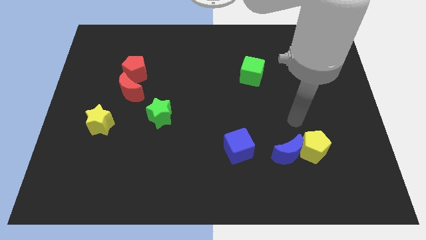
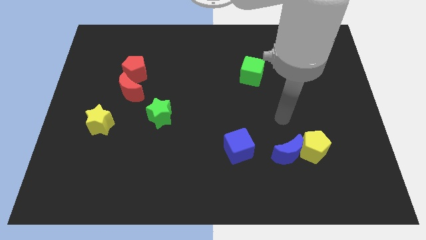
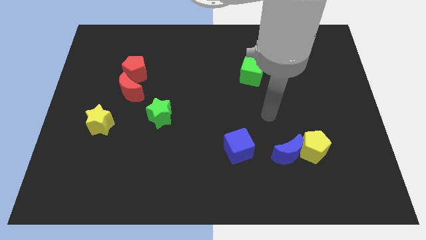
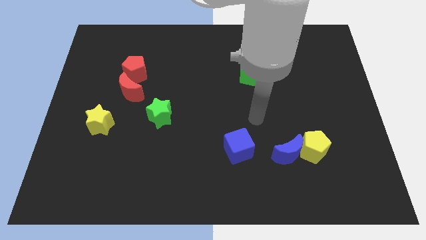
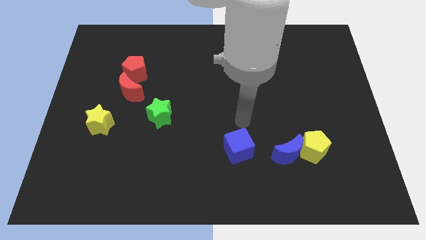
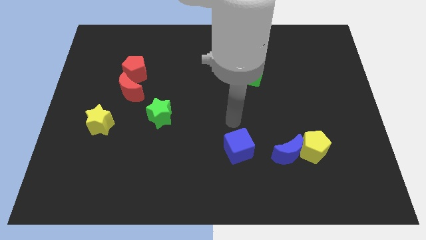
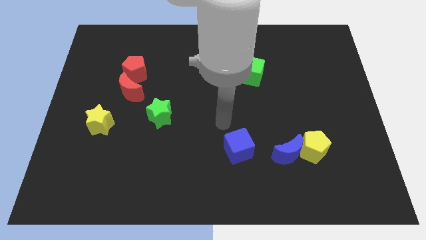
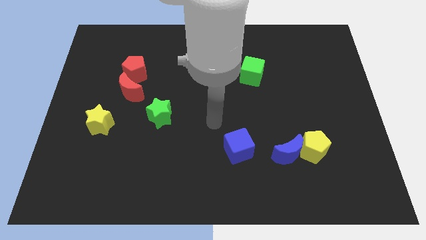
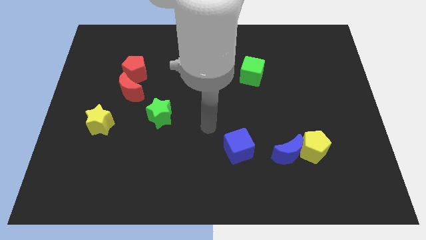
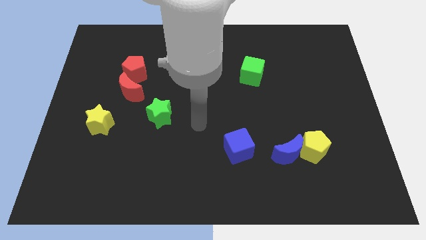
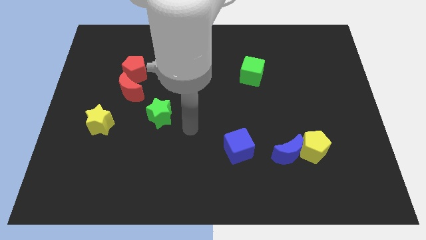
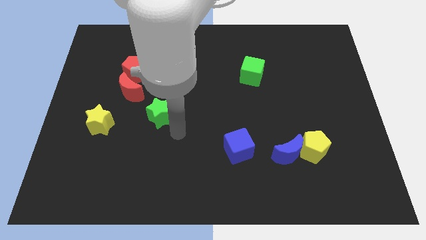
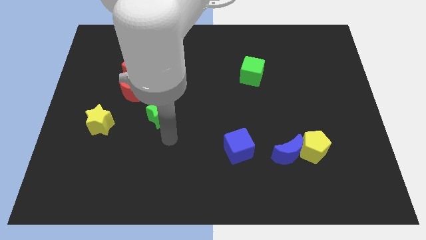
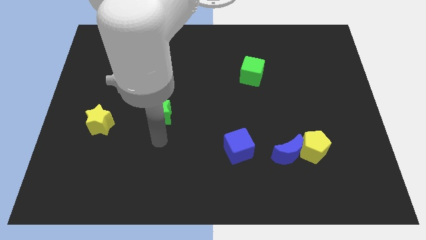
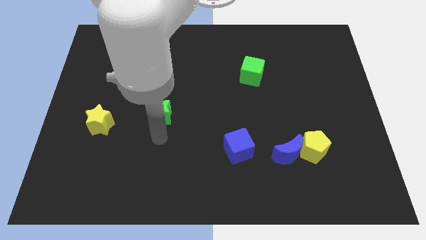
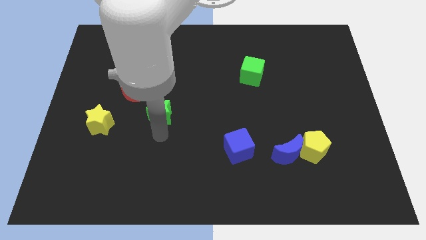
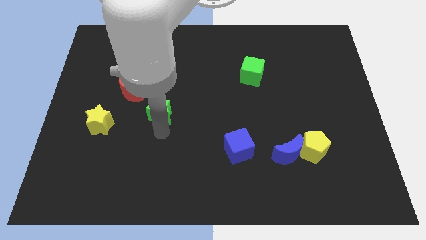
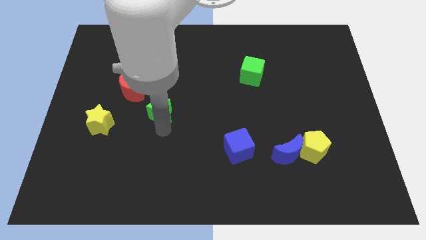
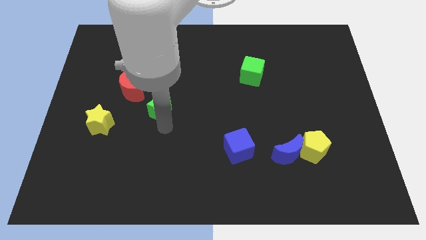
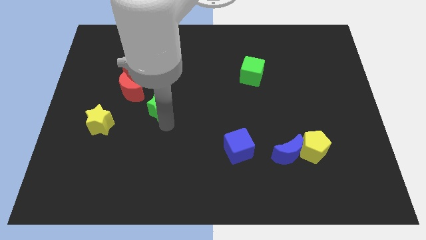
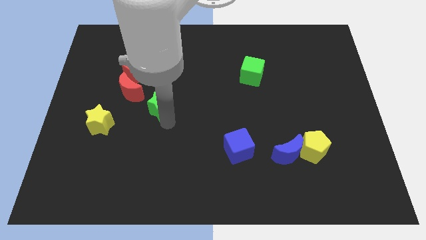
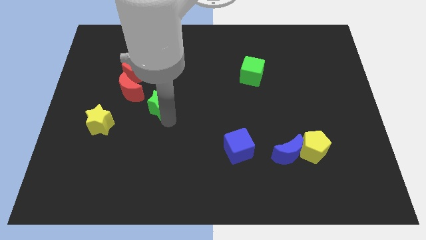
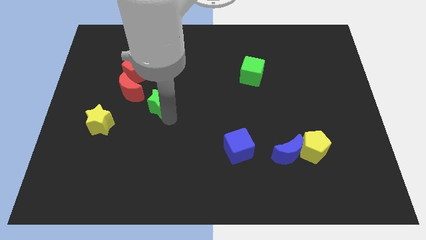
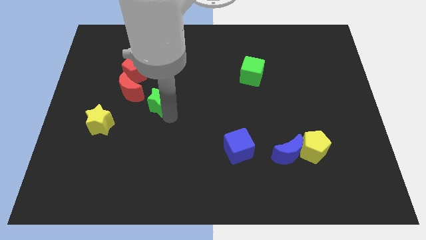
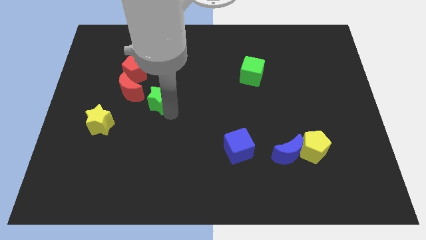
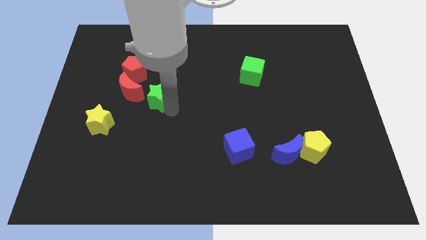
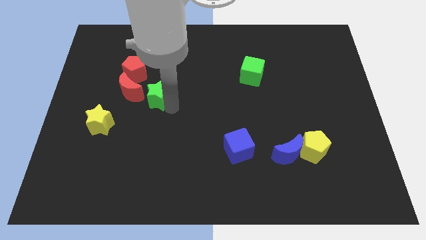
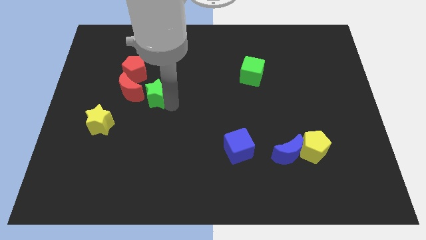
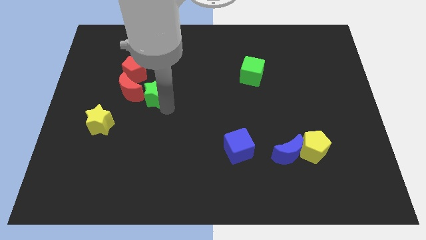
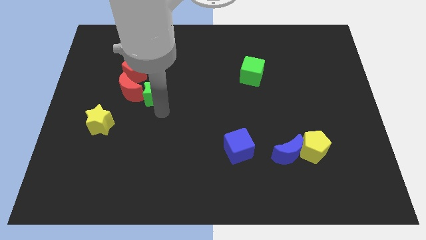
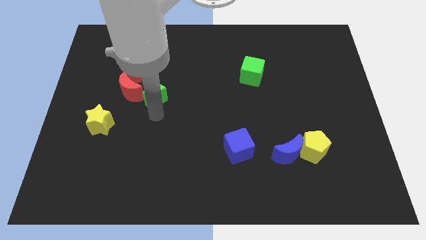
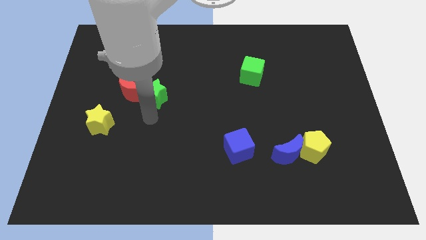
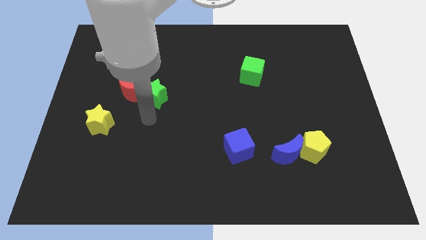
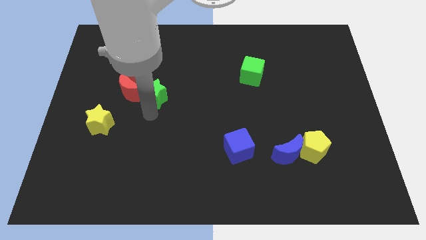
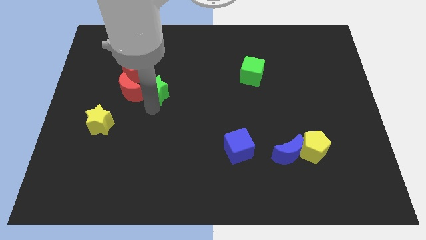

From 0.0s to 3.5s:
move the green star a bit up

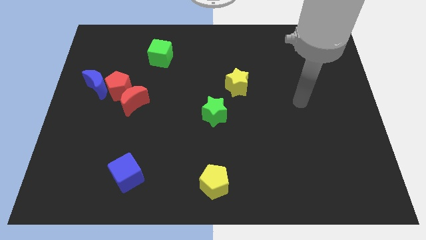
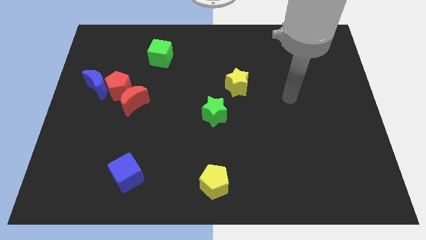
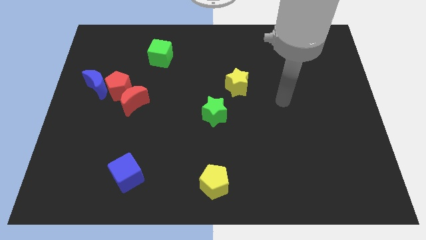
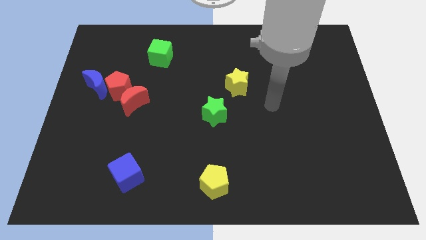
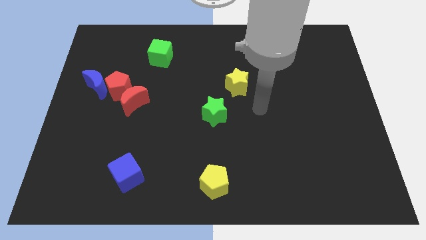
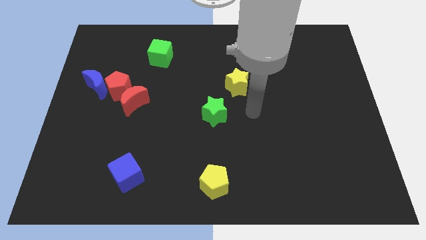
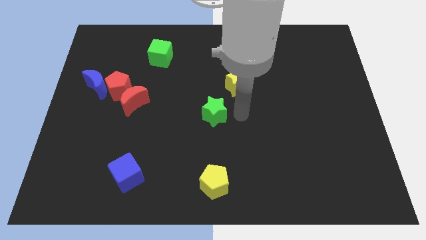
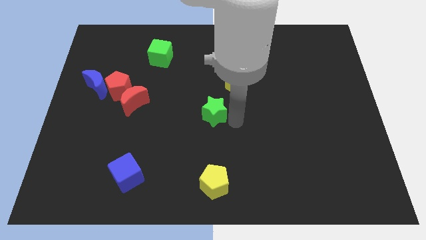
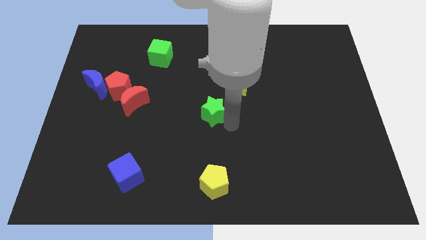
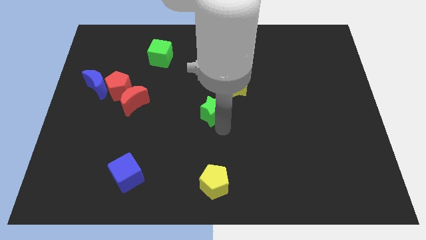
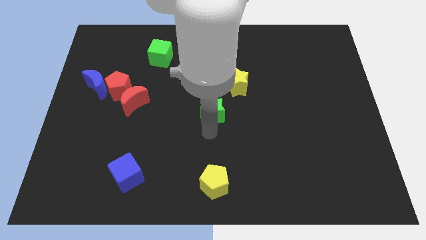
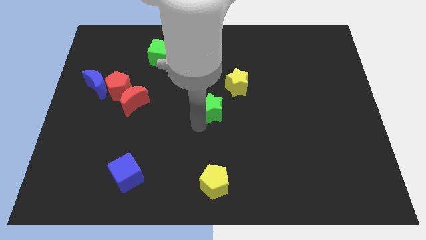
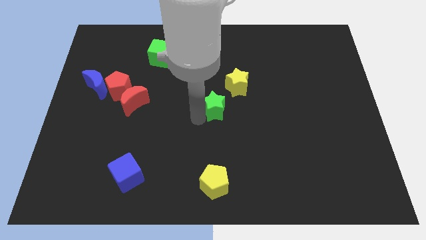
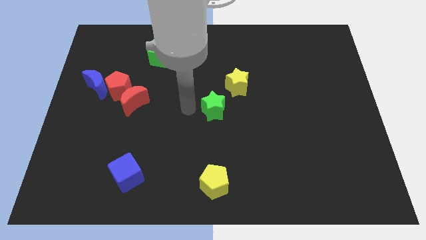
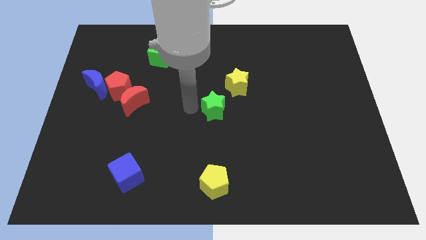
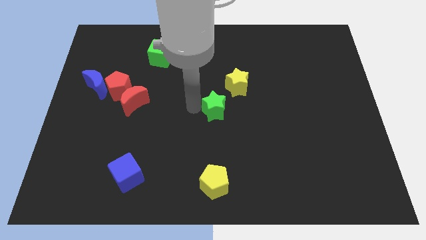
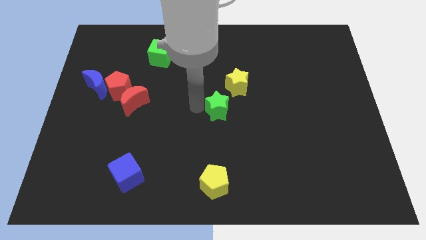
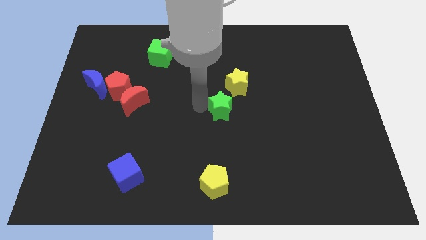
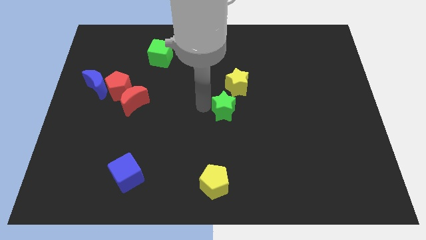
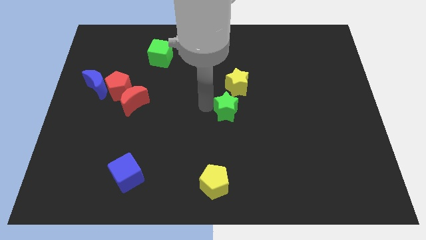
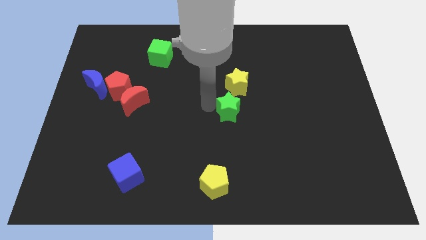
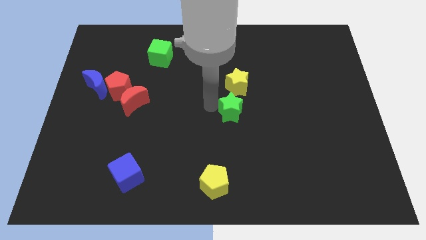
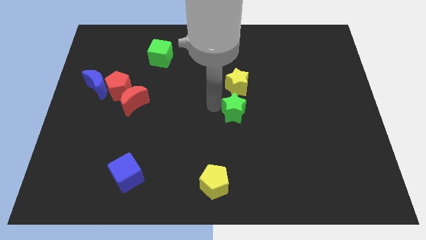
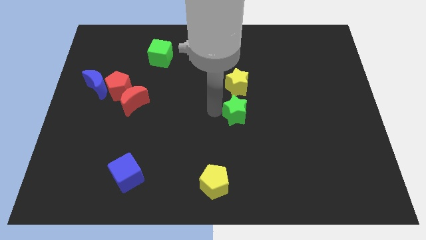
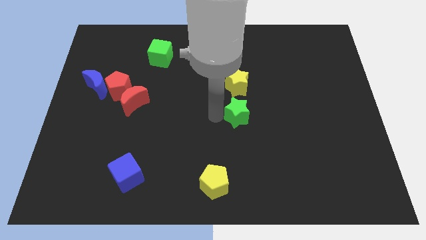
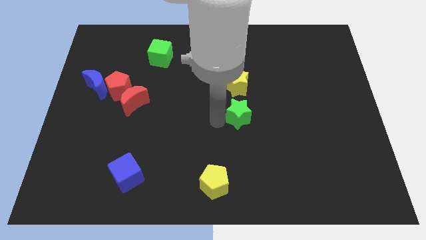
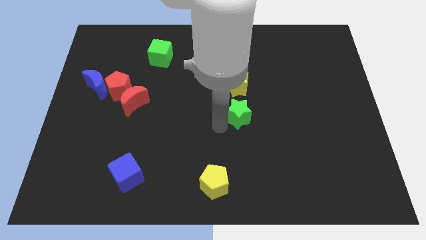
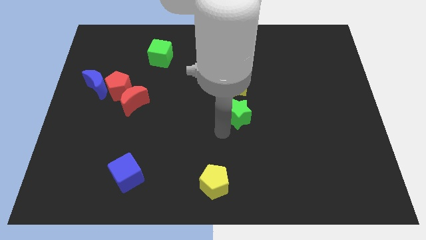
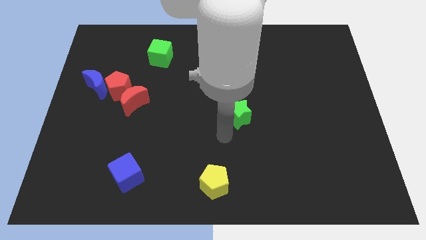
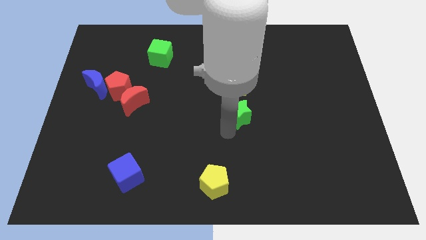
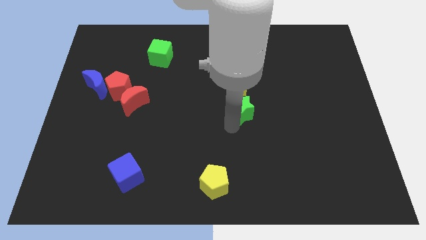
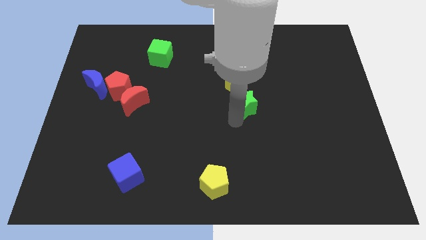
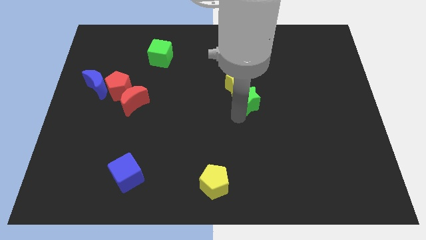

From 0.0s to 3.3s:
slide the green star a little bit upwards and then right

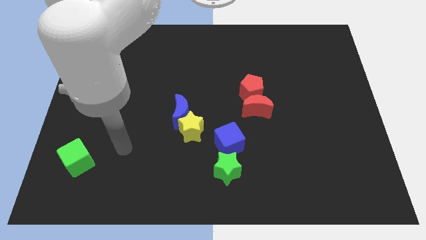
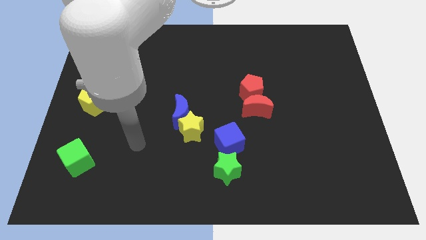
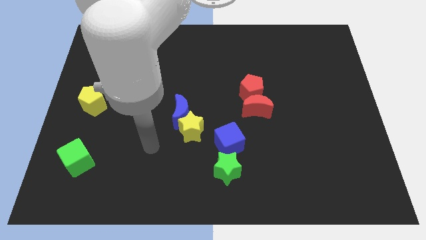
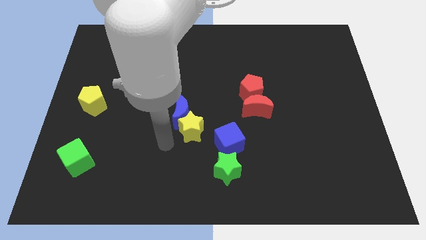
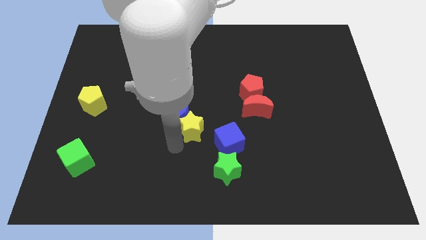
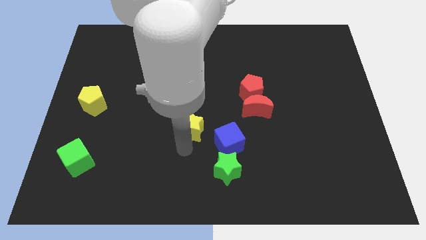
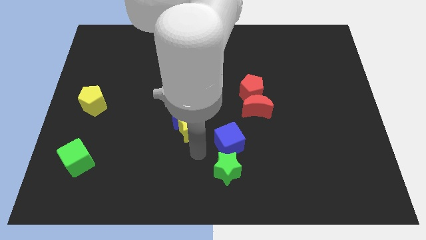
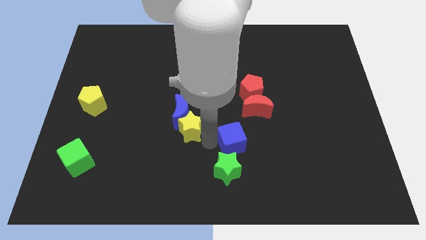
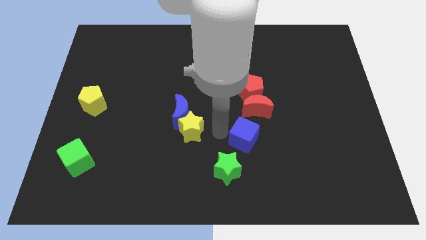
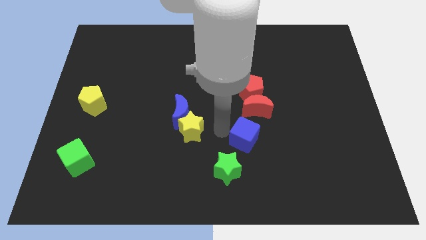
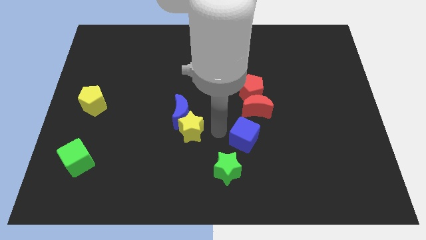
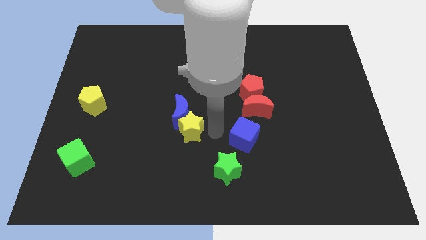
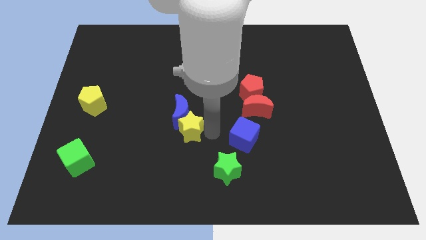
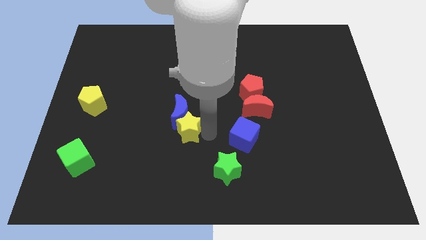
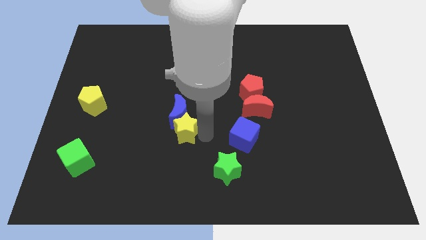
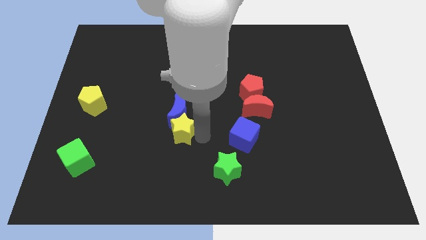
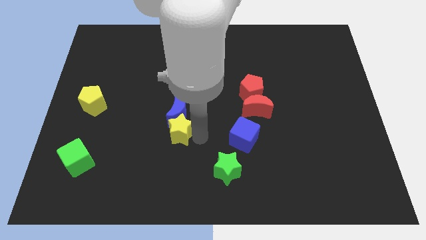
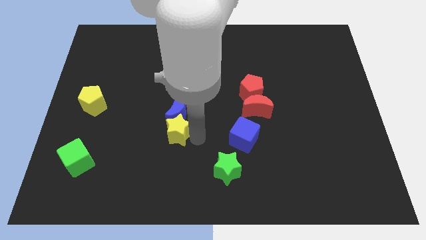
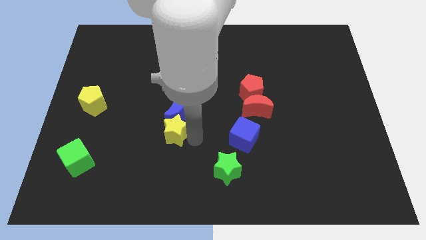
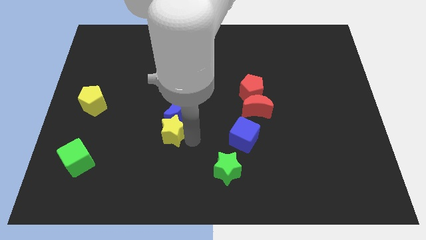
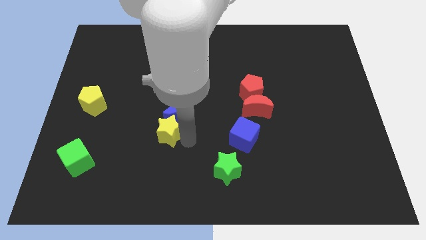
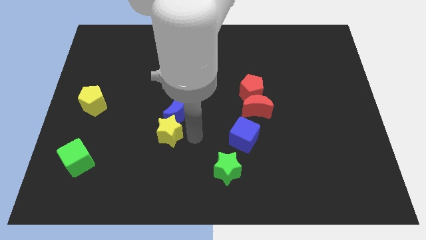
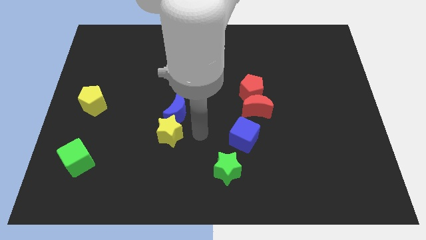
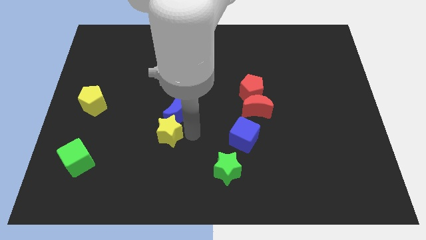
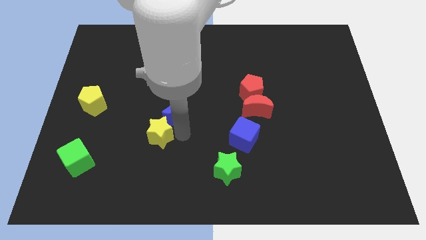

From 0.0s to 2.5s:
slightly slide the yellow star left
